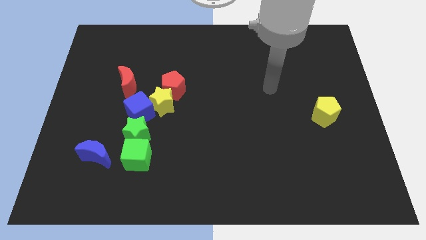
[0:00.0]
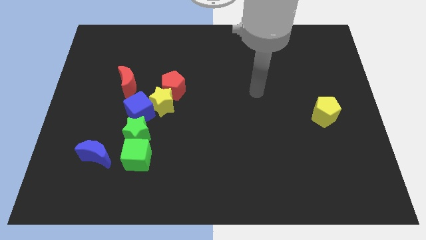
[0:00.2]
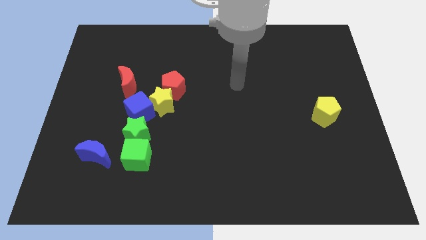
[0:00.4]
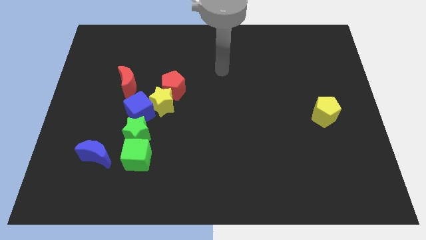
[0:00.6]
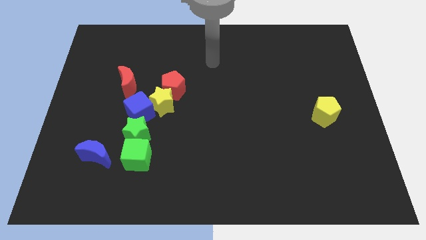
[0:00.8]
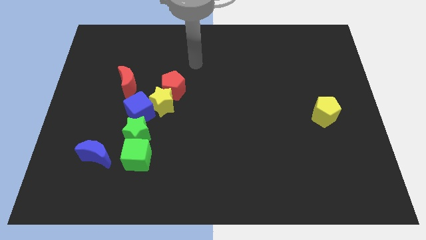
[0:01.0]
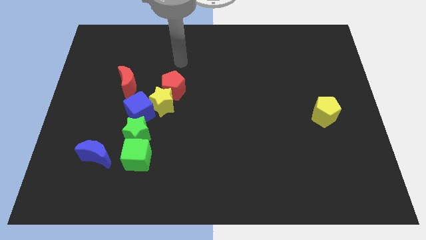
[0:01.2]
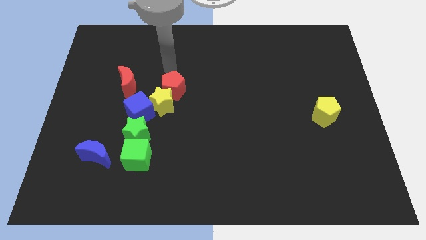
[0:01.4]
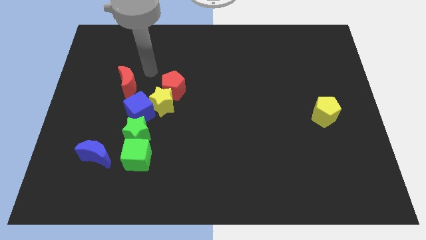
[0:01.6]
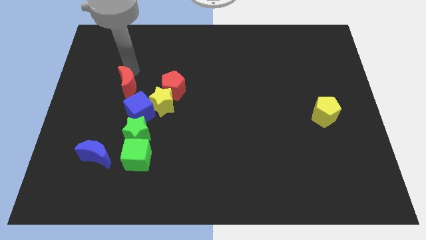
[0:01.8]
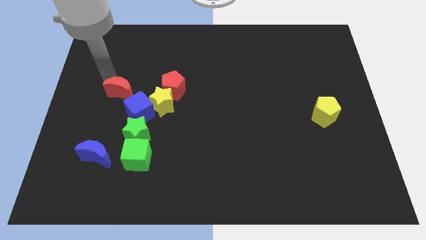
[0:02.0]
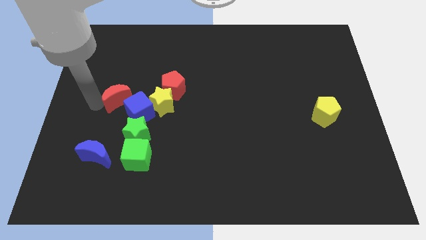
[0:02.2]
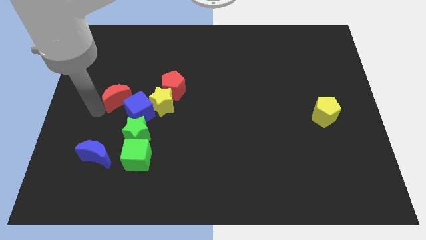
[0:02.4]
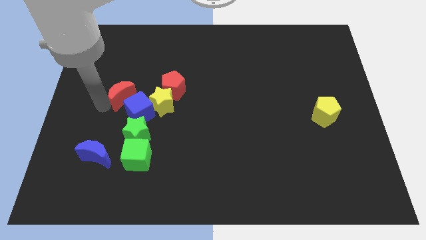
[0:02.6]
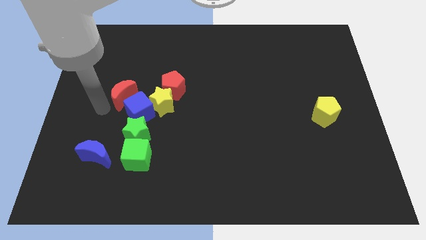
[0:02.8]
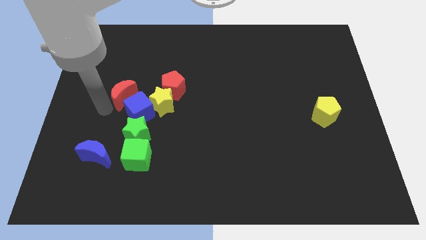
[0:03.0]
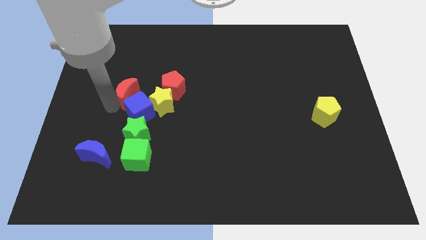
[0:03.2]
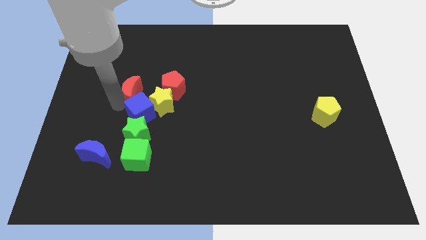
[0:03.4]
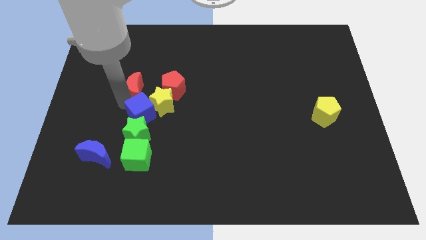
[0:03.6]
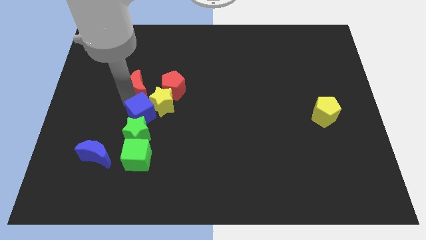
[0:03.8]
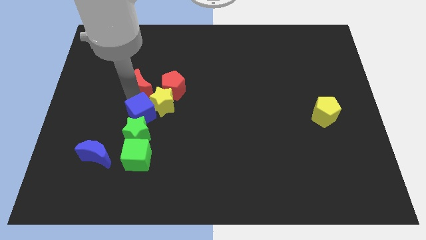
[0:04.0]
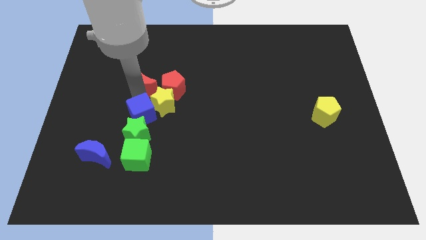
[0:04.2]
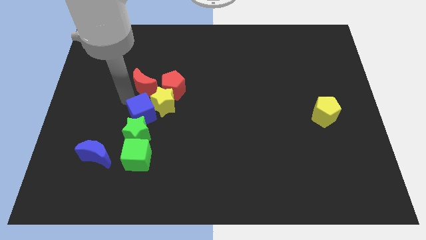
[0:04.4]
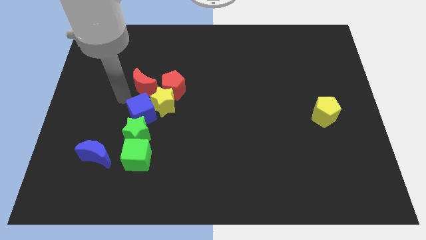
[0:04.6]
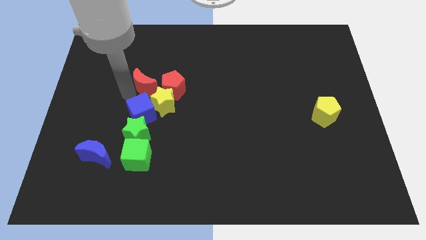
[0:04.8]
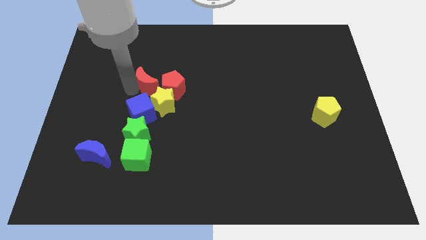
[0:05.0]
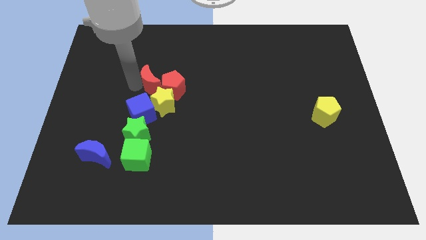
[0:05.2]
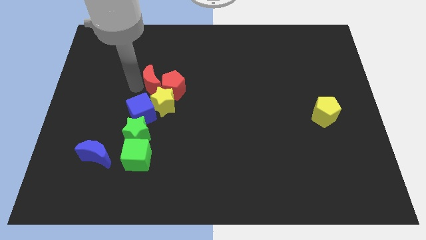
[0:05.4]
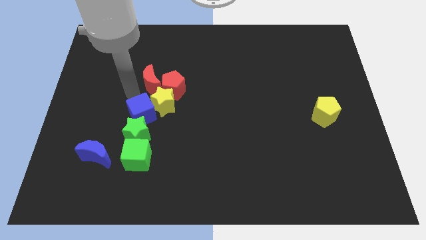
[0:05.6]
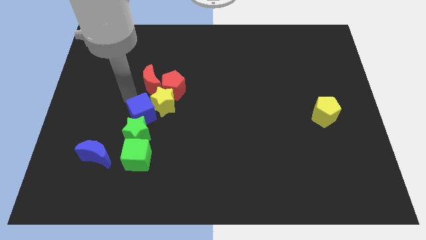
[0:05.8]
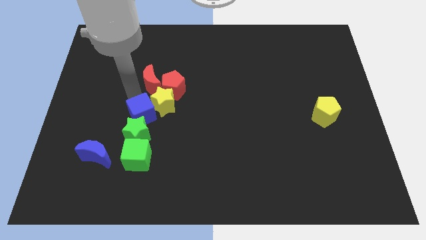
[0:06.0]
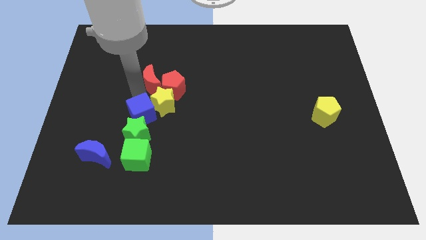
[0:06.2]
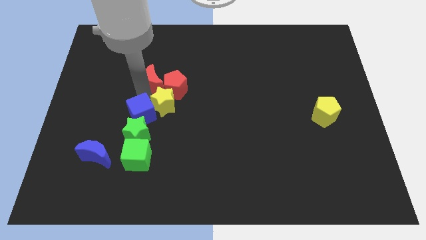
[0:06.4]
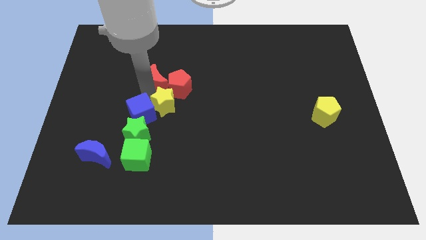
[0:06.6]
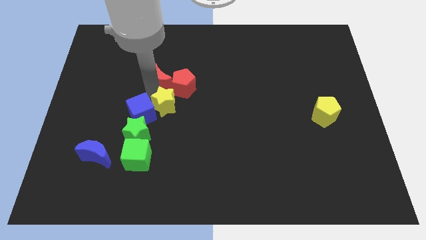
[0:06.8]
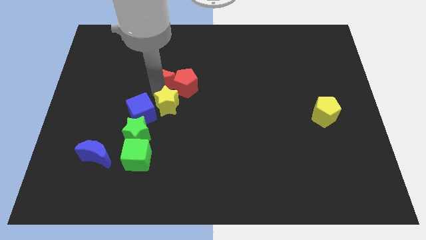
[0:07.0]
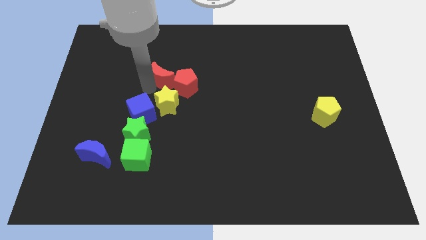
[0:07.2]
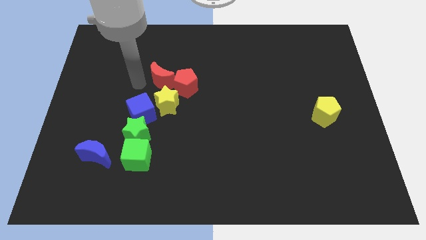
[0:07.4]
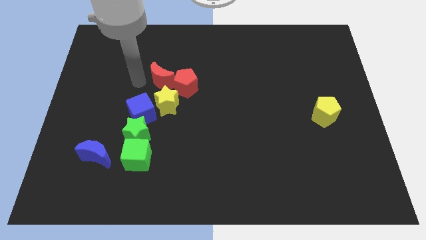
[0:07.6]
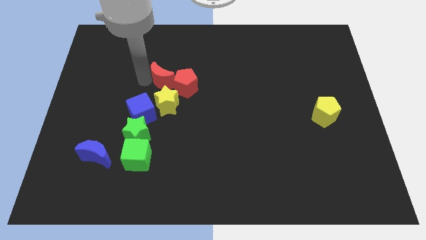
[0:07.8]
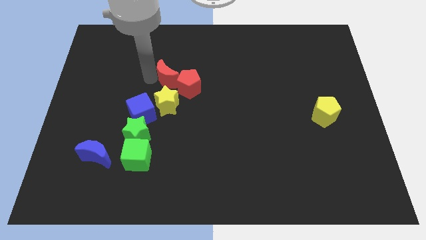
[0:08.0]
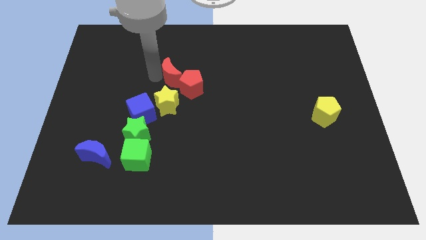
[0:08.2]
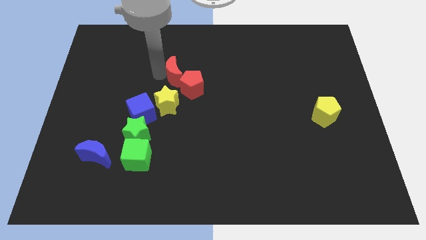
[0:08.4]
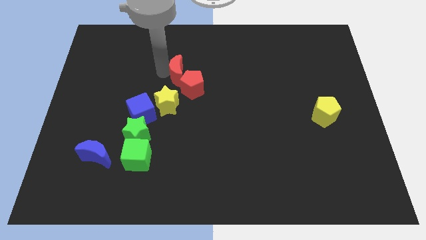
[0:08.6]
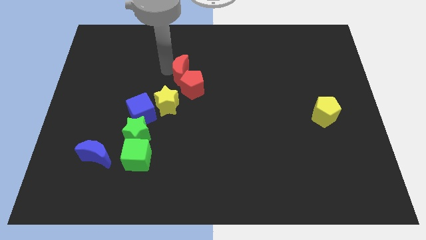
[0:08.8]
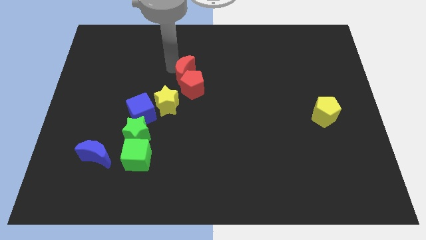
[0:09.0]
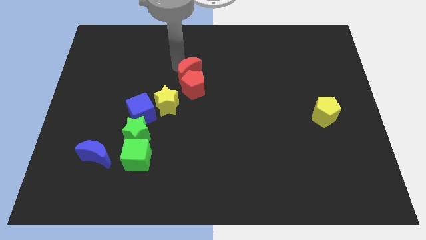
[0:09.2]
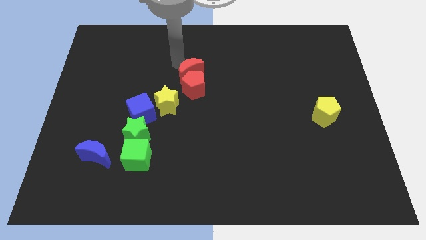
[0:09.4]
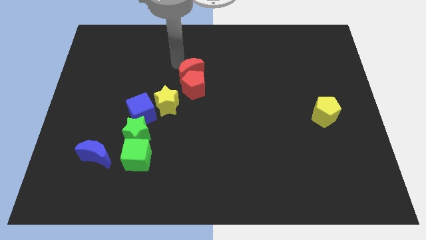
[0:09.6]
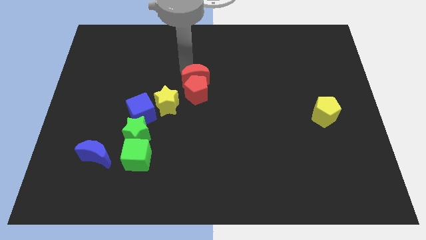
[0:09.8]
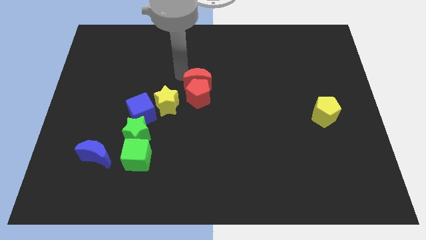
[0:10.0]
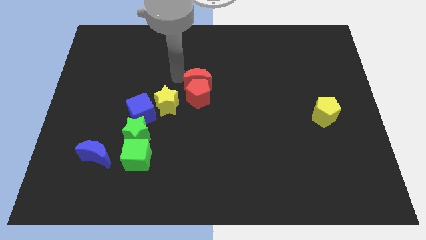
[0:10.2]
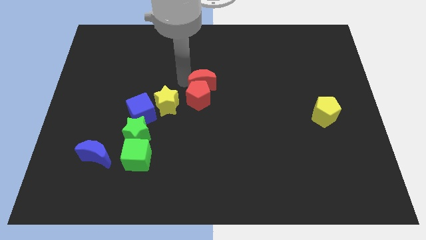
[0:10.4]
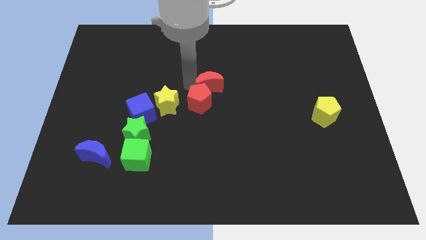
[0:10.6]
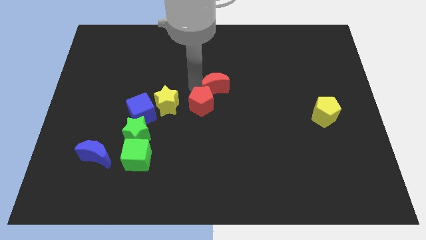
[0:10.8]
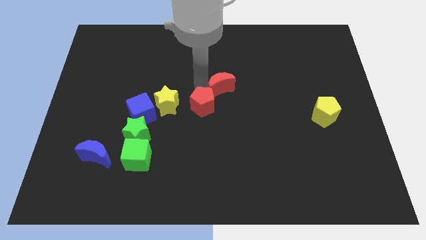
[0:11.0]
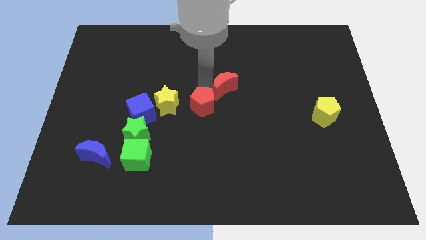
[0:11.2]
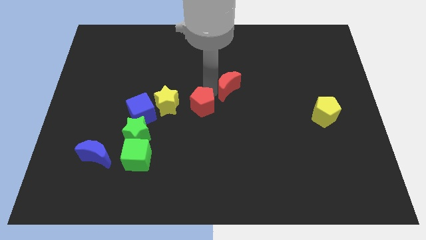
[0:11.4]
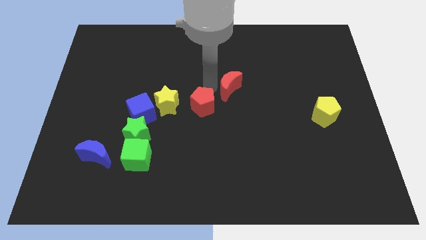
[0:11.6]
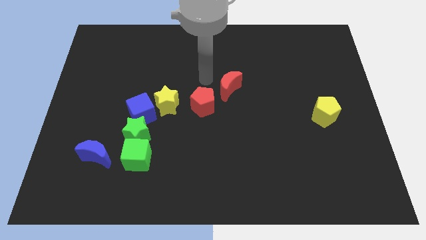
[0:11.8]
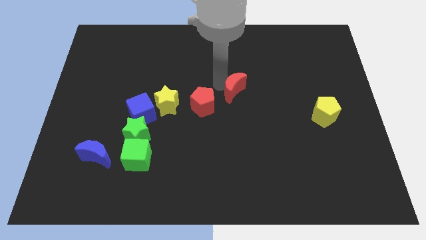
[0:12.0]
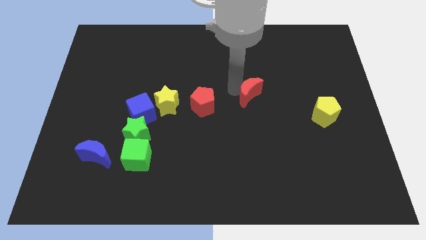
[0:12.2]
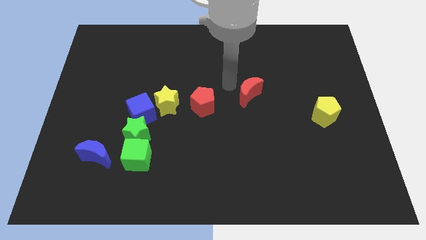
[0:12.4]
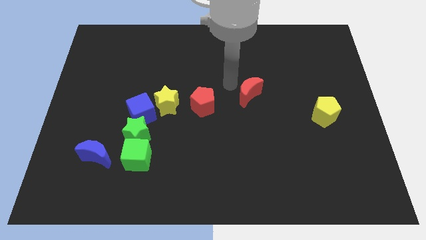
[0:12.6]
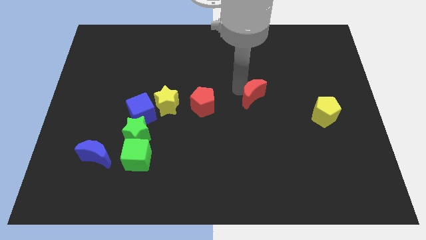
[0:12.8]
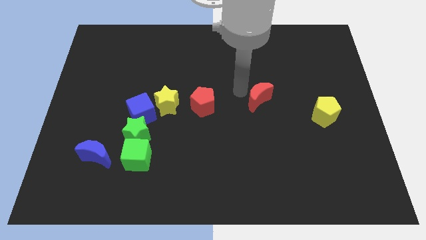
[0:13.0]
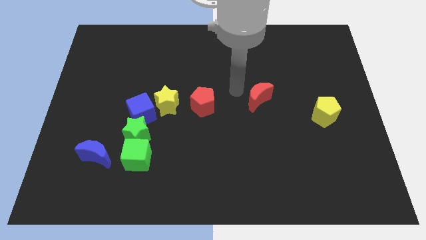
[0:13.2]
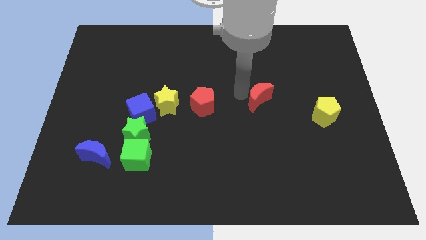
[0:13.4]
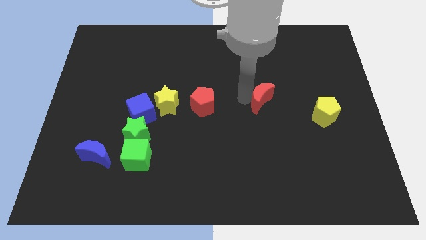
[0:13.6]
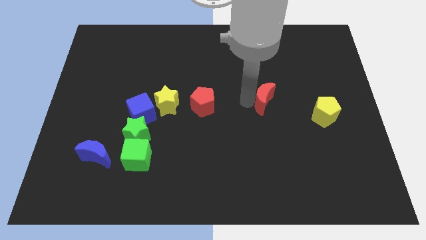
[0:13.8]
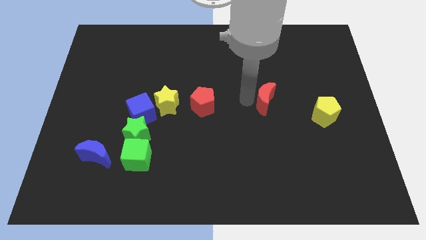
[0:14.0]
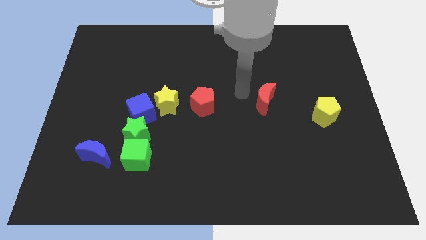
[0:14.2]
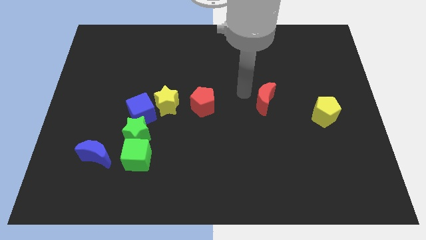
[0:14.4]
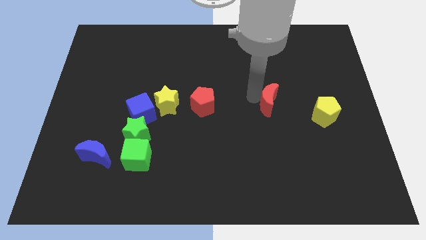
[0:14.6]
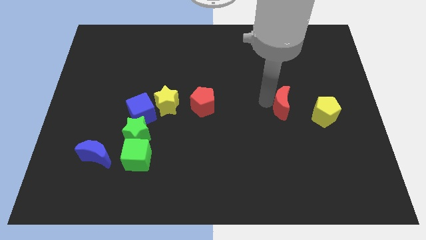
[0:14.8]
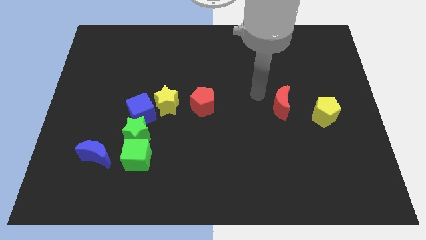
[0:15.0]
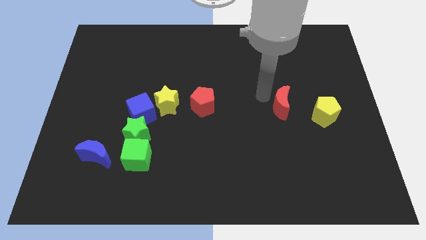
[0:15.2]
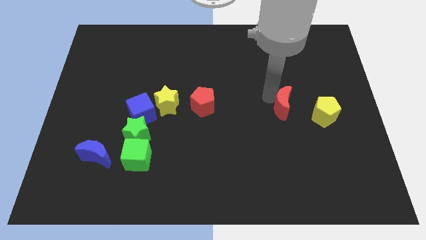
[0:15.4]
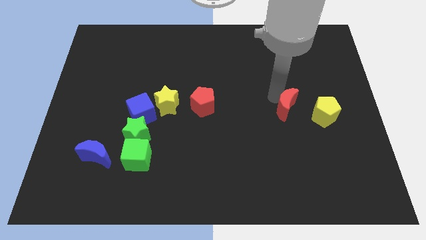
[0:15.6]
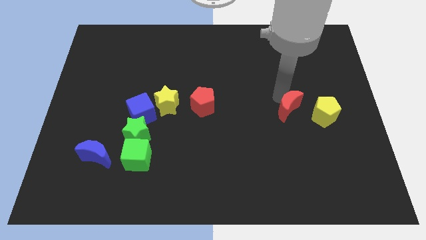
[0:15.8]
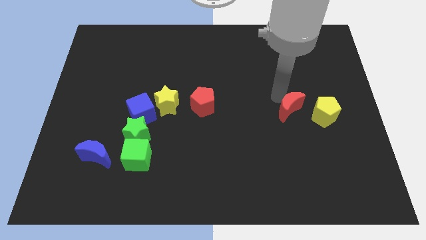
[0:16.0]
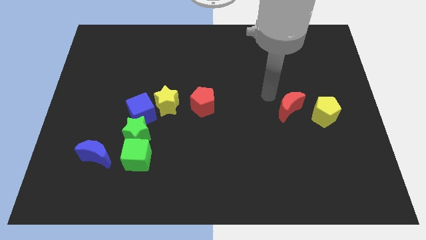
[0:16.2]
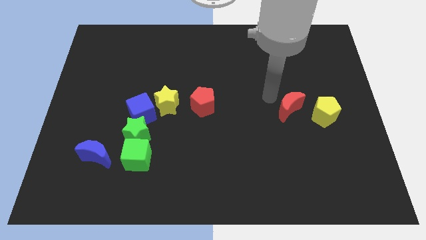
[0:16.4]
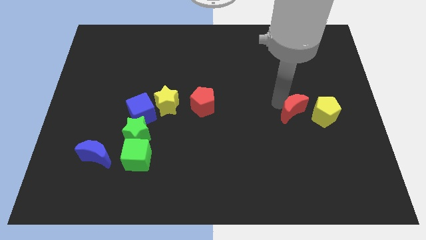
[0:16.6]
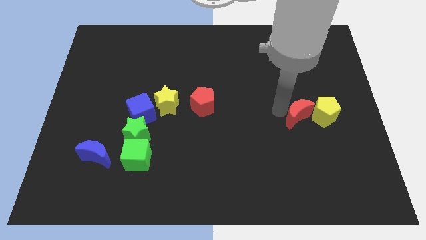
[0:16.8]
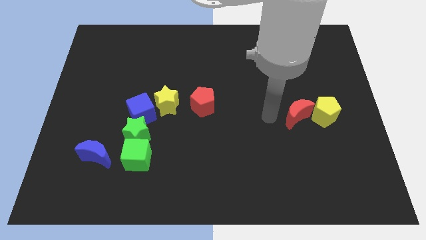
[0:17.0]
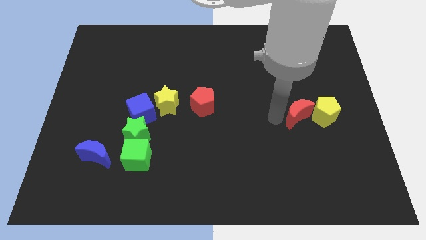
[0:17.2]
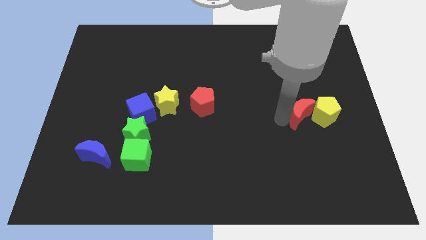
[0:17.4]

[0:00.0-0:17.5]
move the red moon towards the yellow pentagon
